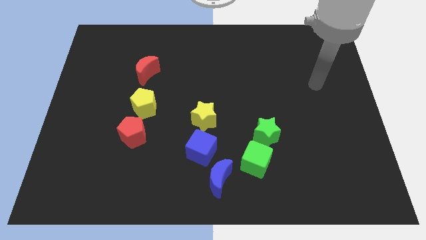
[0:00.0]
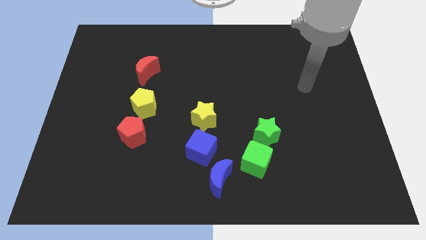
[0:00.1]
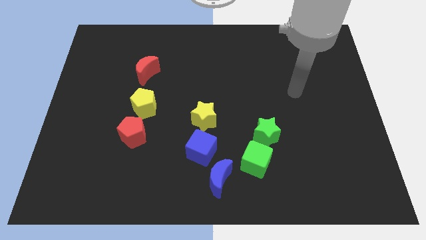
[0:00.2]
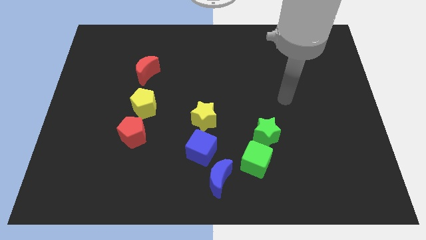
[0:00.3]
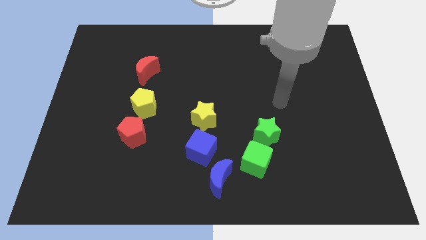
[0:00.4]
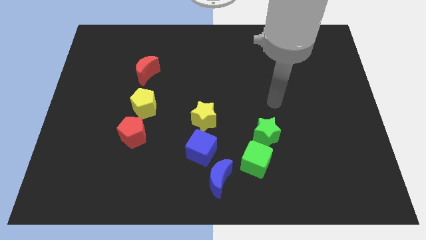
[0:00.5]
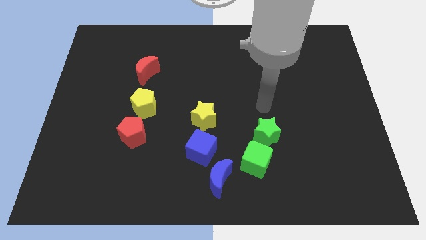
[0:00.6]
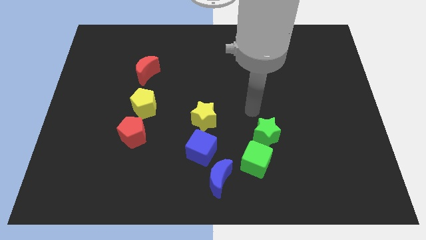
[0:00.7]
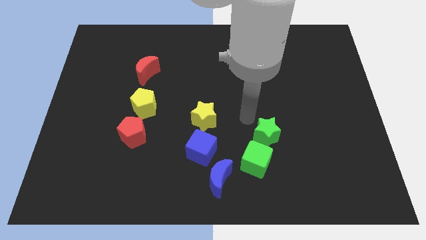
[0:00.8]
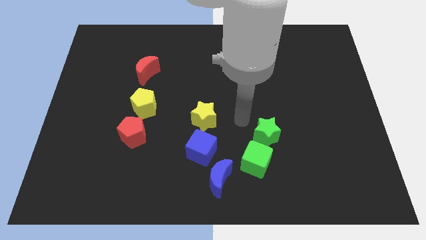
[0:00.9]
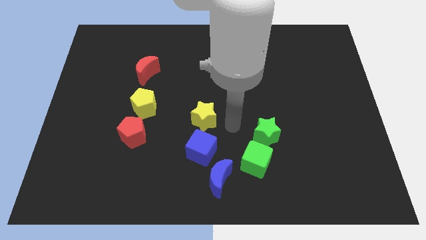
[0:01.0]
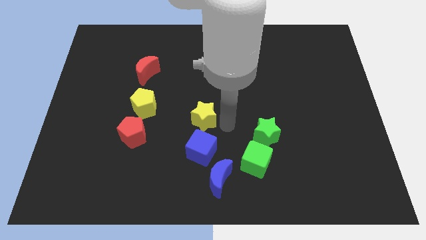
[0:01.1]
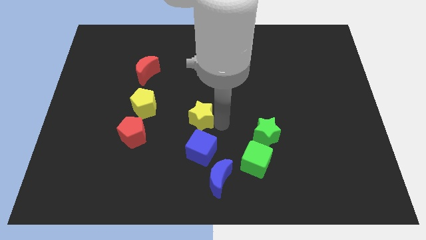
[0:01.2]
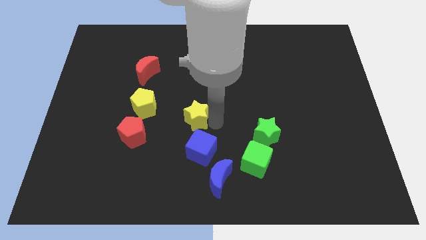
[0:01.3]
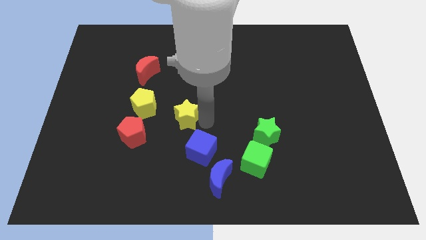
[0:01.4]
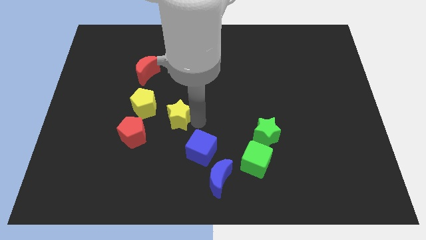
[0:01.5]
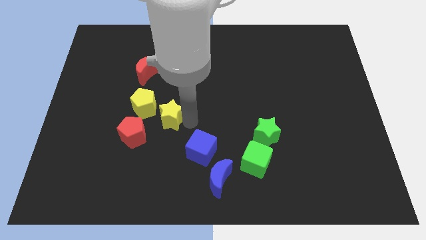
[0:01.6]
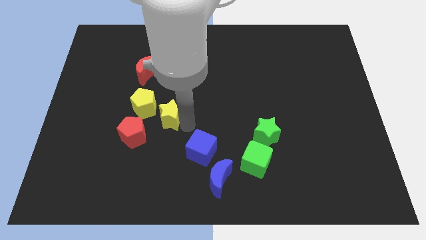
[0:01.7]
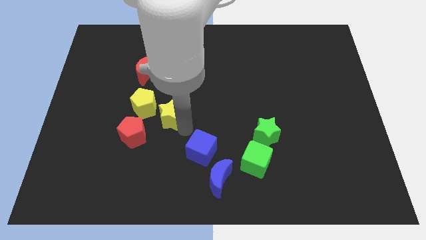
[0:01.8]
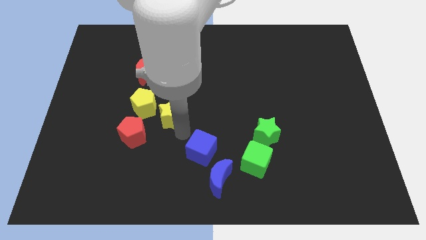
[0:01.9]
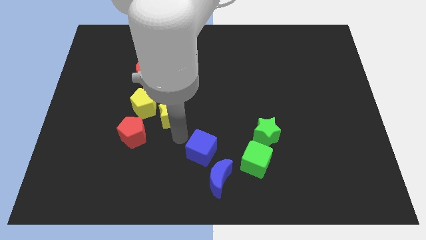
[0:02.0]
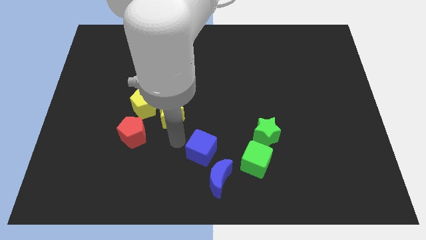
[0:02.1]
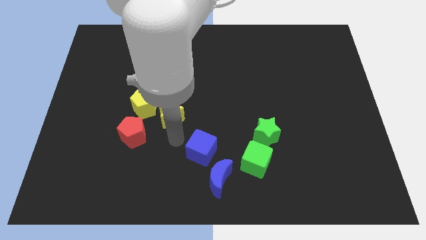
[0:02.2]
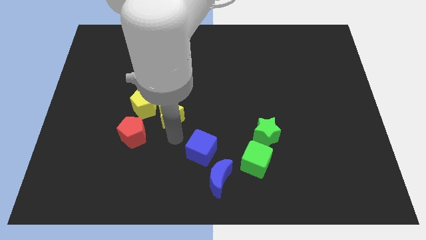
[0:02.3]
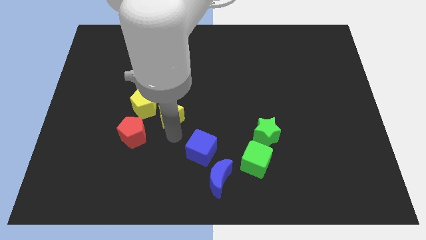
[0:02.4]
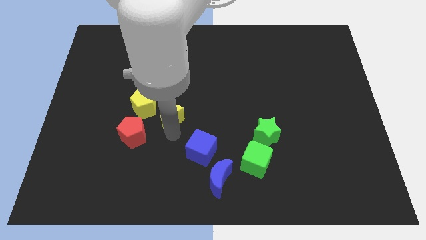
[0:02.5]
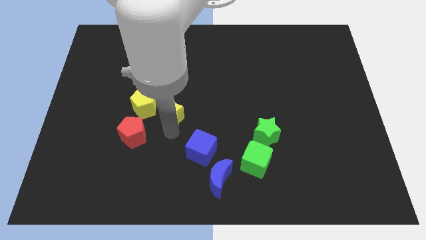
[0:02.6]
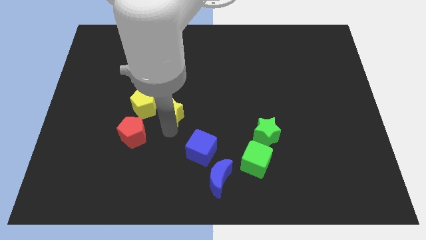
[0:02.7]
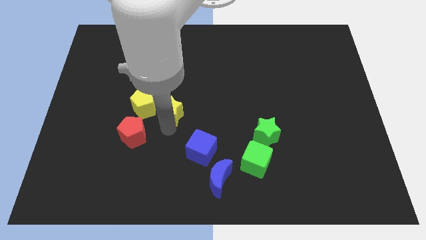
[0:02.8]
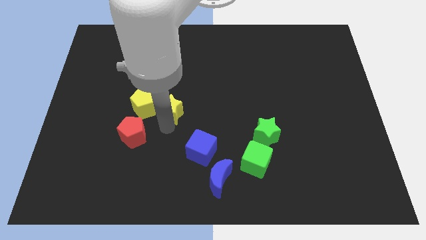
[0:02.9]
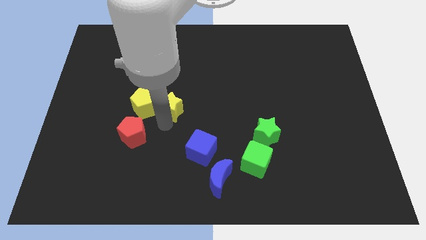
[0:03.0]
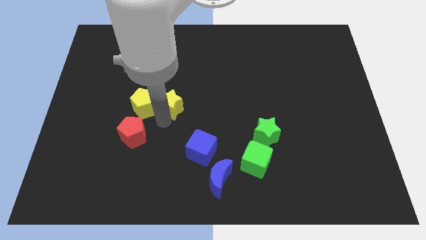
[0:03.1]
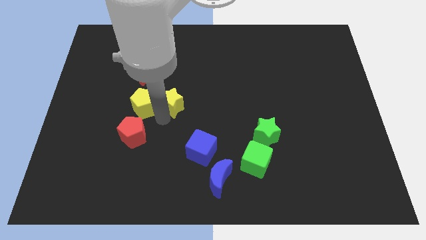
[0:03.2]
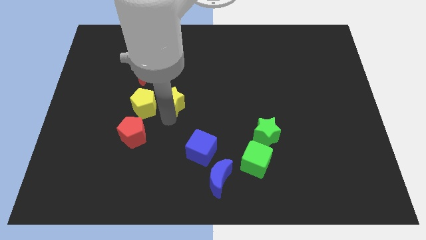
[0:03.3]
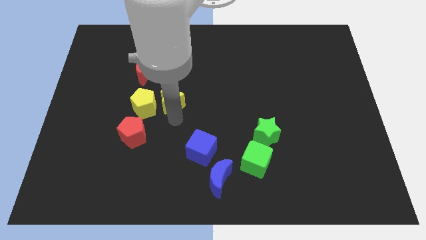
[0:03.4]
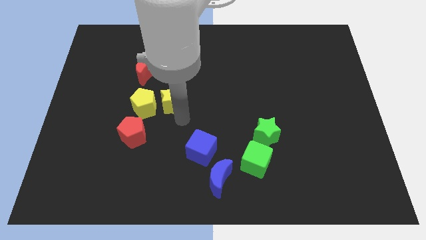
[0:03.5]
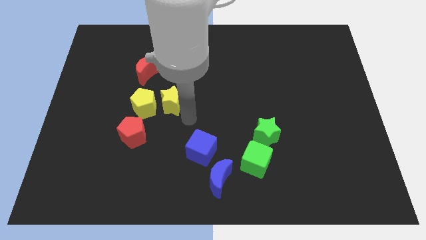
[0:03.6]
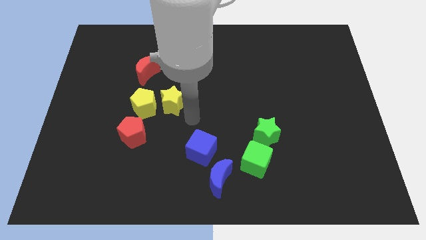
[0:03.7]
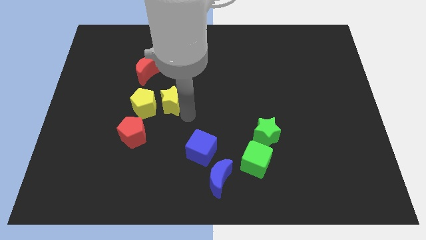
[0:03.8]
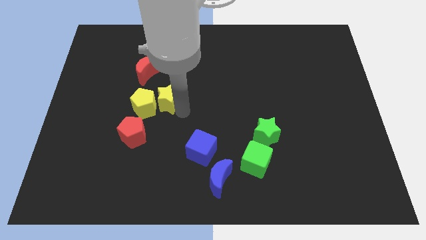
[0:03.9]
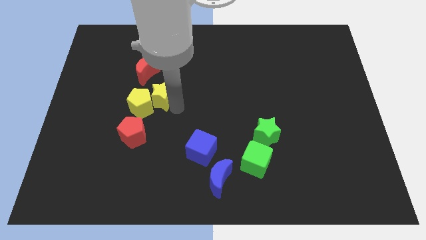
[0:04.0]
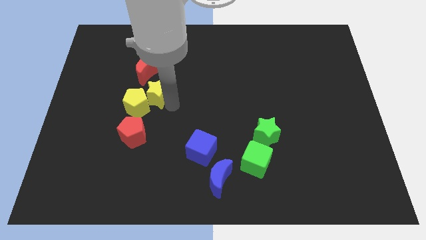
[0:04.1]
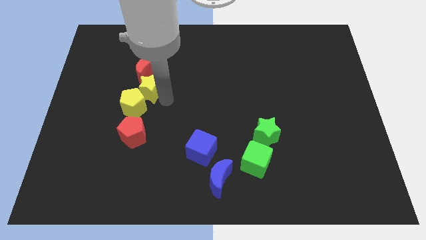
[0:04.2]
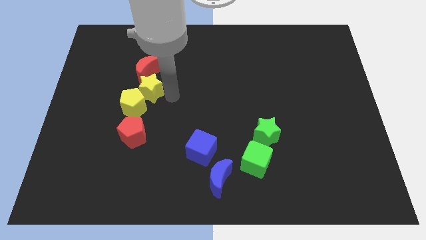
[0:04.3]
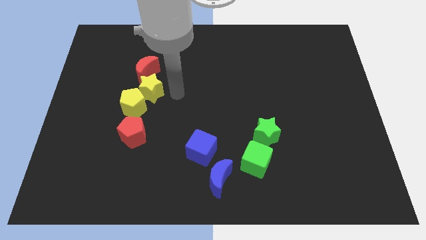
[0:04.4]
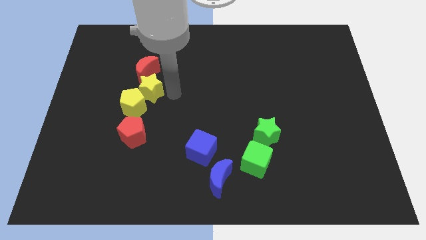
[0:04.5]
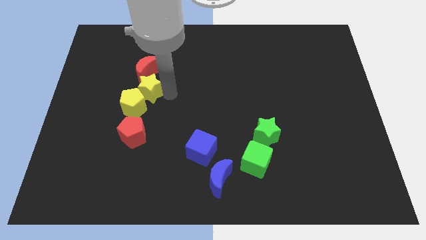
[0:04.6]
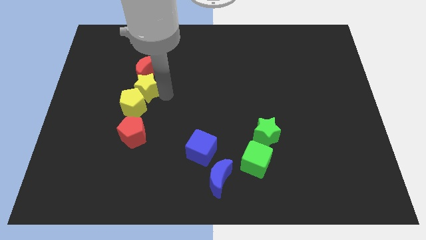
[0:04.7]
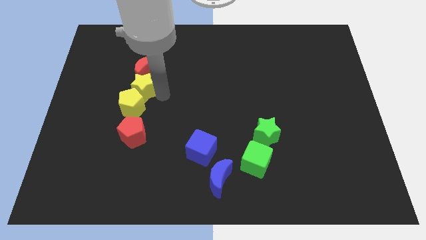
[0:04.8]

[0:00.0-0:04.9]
put the yellow star to the top left of the yellow pentagon

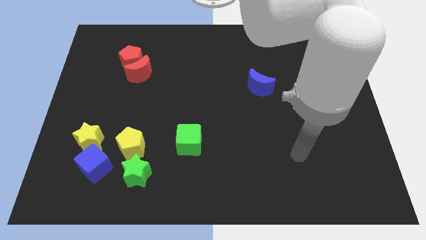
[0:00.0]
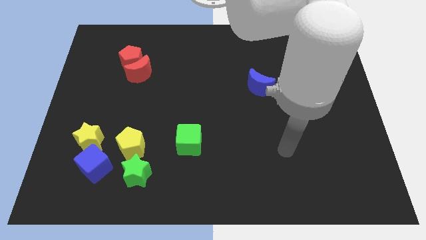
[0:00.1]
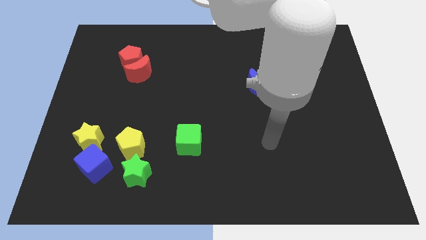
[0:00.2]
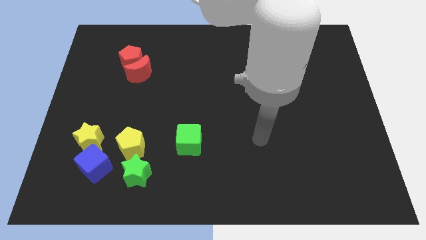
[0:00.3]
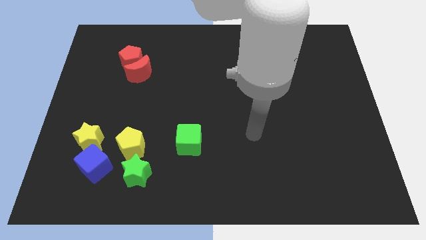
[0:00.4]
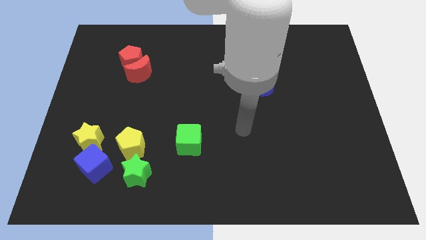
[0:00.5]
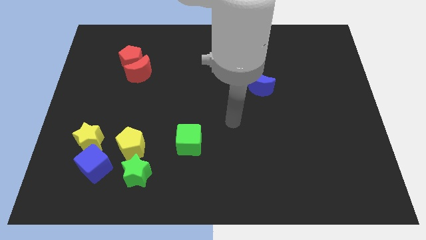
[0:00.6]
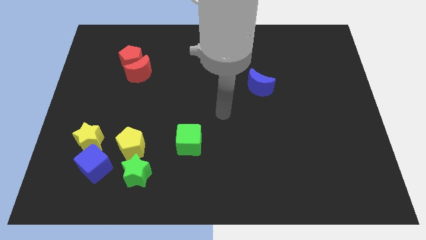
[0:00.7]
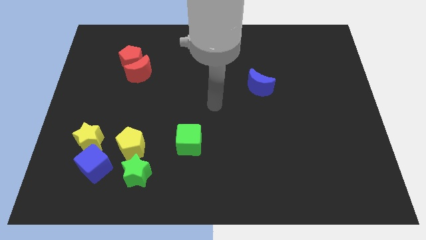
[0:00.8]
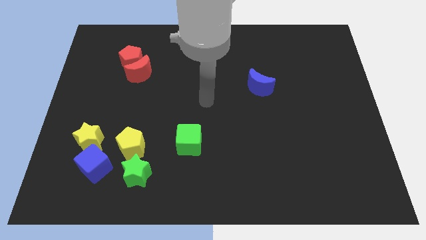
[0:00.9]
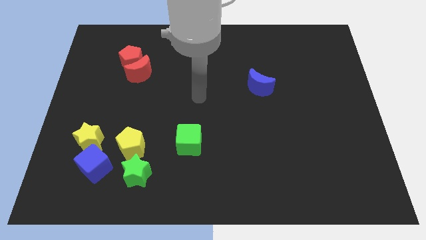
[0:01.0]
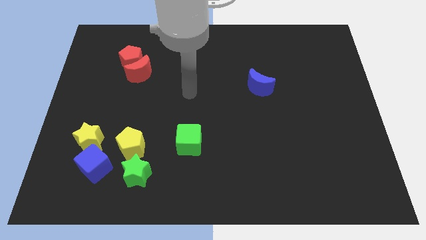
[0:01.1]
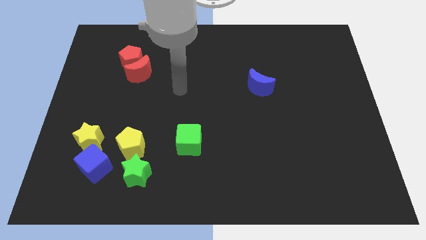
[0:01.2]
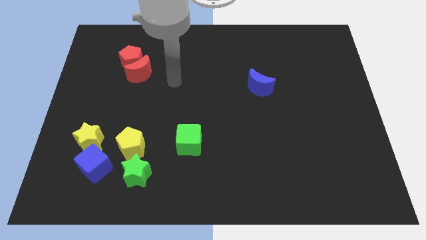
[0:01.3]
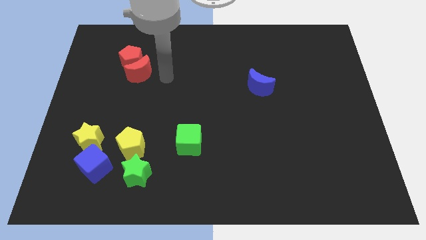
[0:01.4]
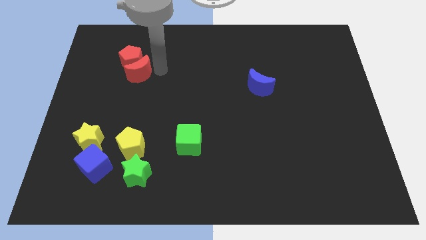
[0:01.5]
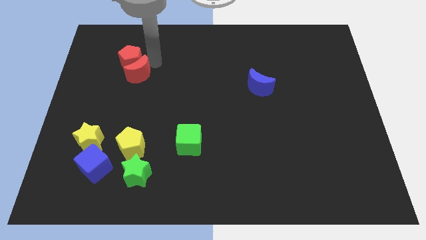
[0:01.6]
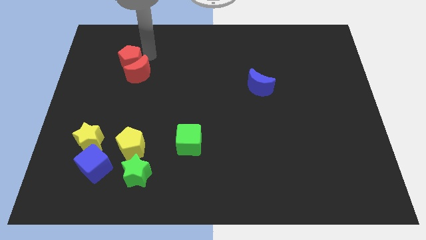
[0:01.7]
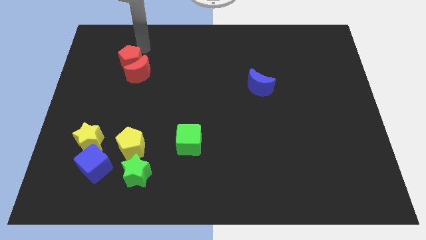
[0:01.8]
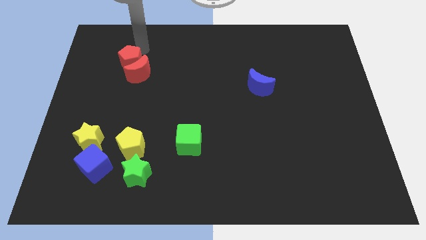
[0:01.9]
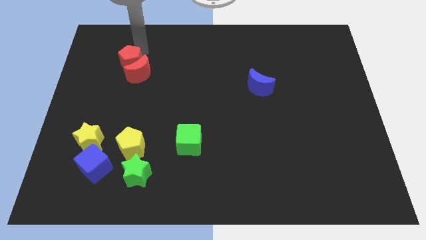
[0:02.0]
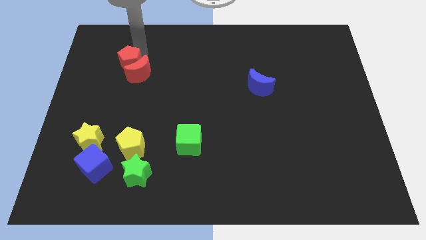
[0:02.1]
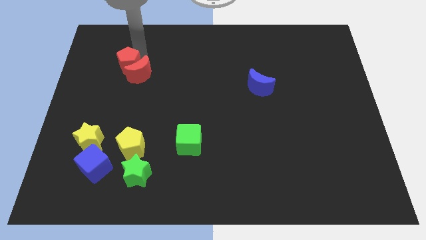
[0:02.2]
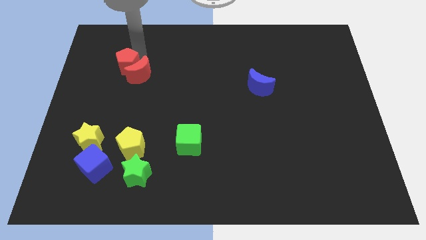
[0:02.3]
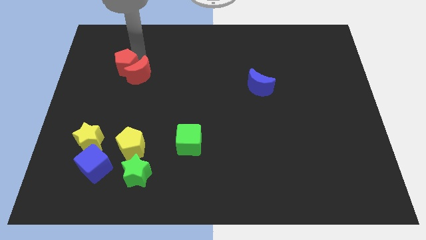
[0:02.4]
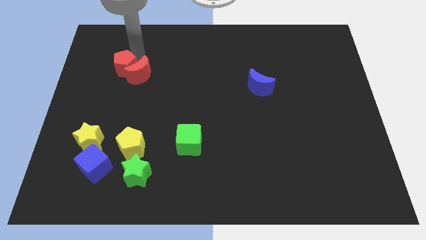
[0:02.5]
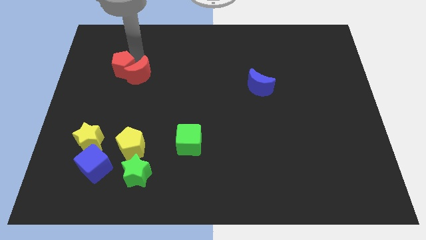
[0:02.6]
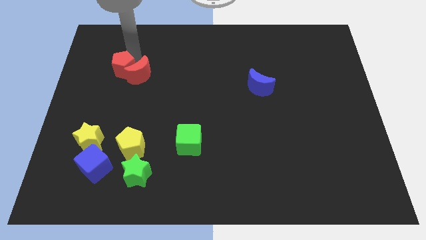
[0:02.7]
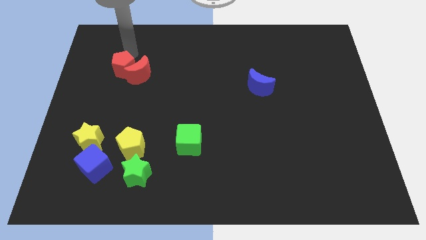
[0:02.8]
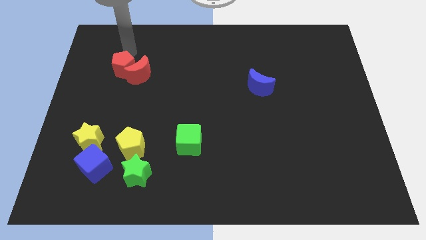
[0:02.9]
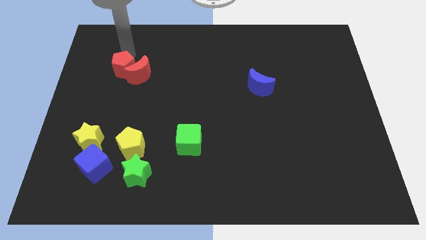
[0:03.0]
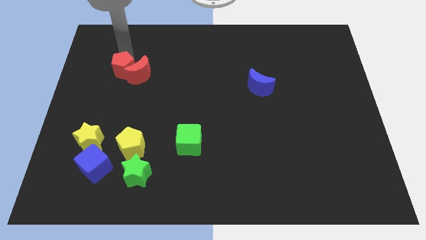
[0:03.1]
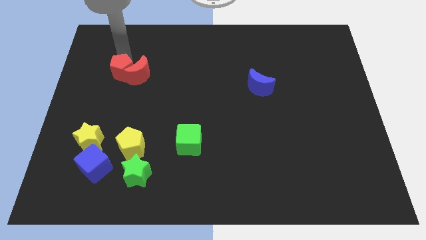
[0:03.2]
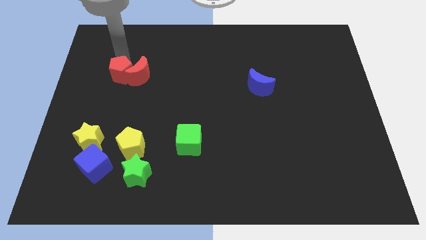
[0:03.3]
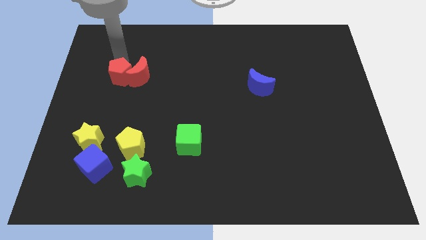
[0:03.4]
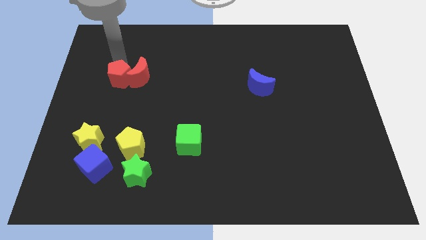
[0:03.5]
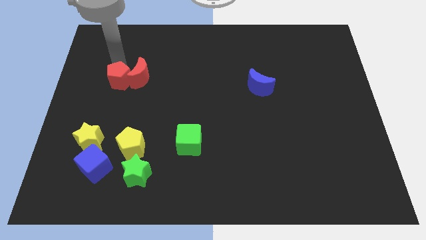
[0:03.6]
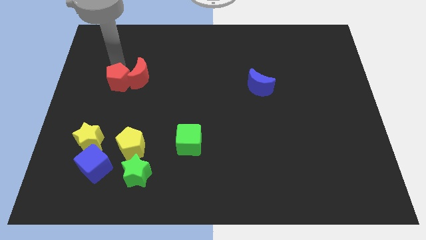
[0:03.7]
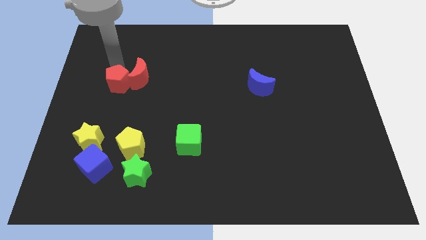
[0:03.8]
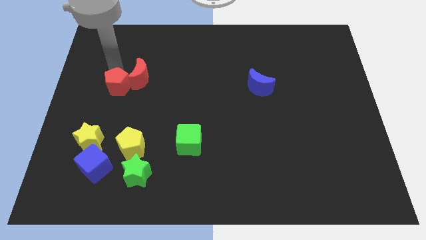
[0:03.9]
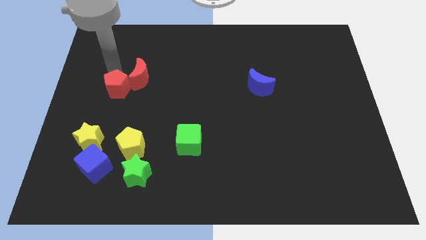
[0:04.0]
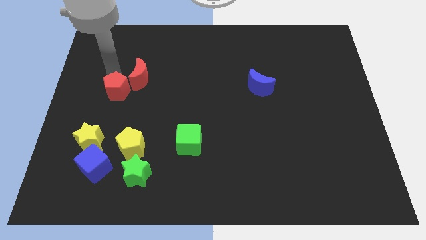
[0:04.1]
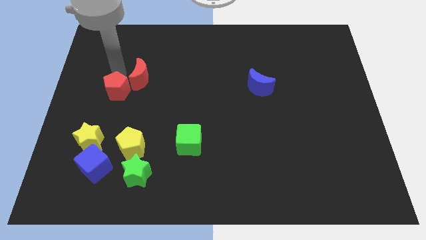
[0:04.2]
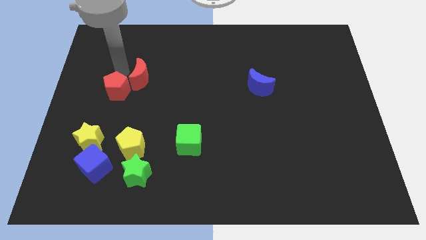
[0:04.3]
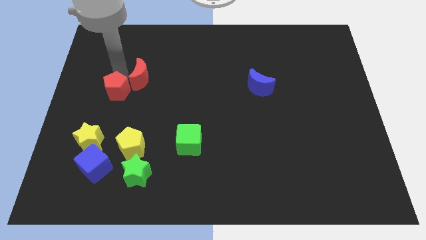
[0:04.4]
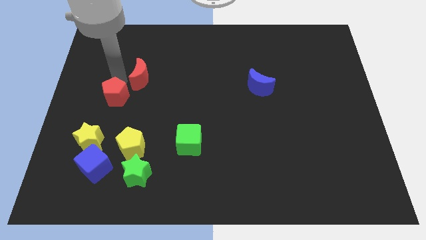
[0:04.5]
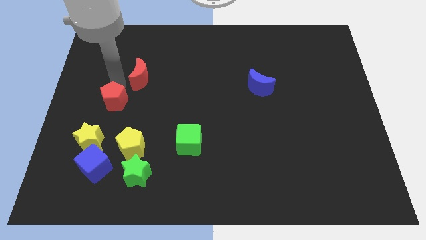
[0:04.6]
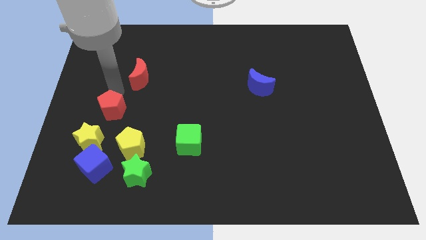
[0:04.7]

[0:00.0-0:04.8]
put the red pentagon diagonally up and to the left of the yellow pentagon
